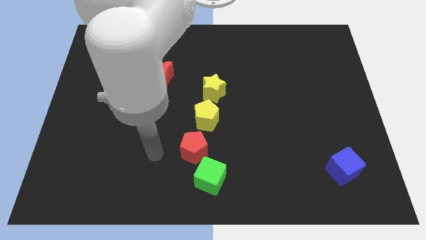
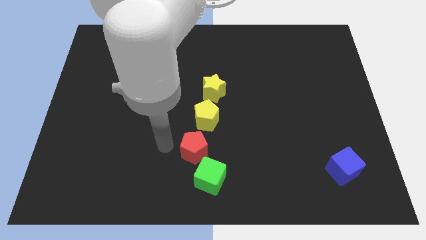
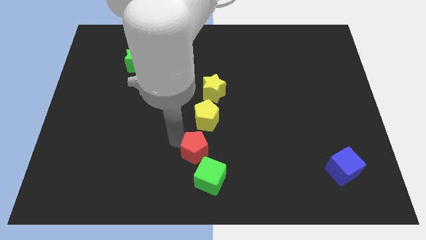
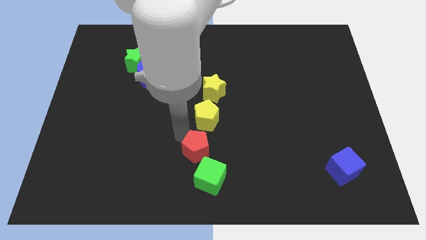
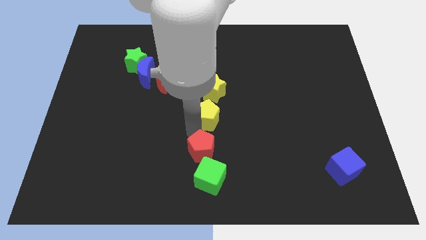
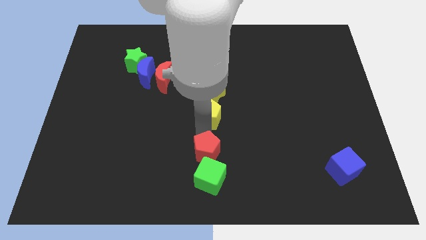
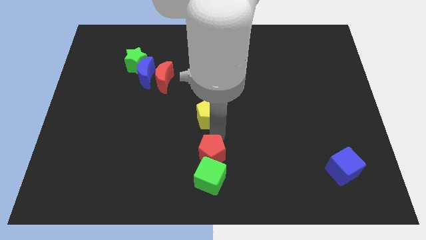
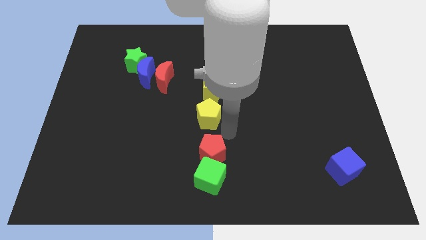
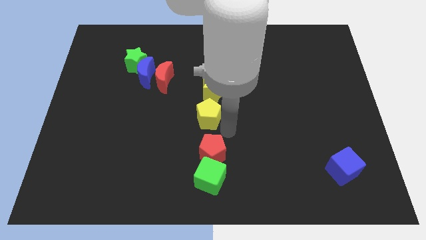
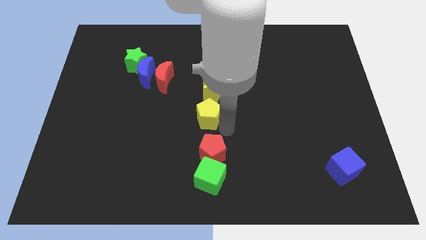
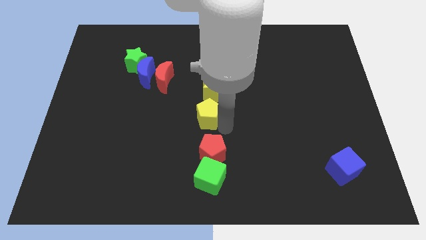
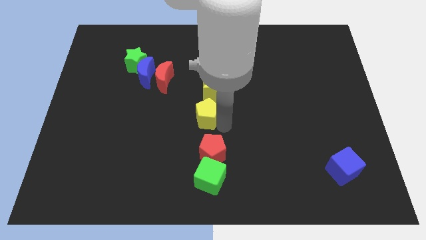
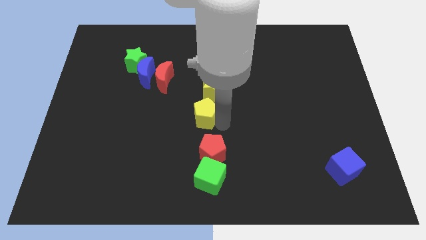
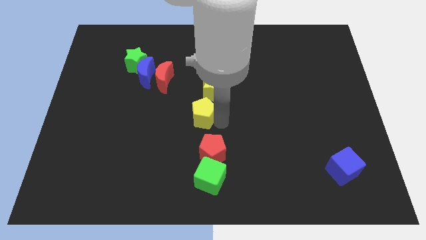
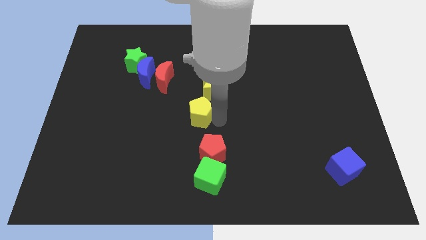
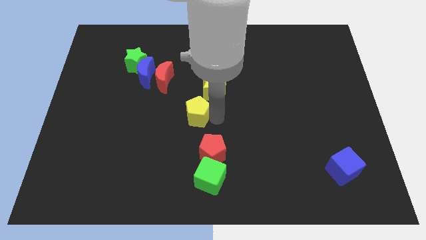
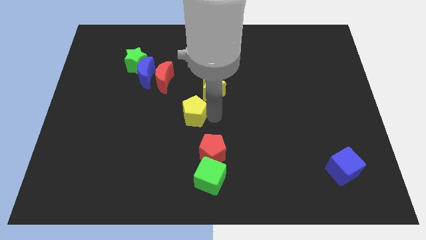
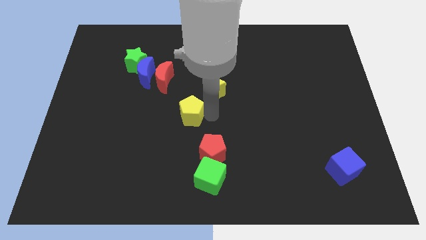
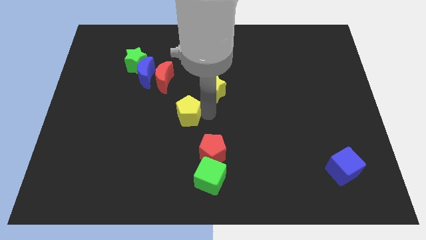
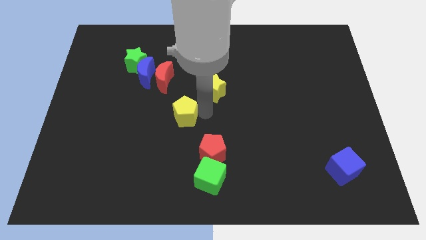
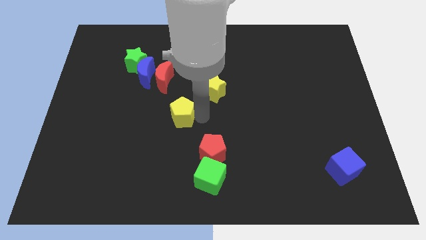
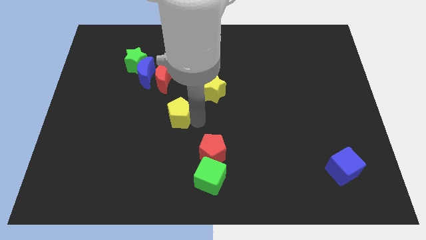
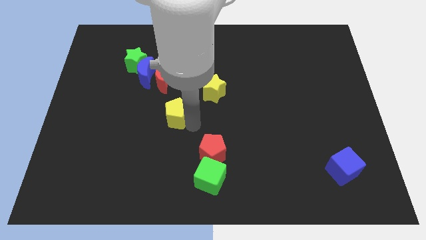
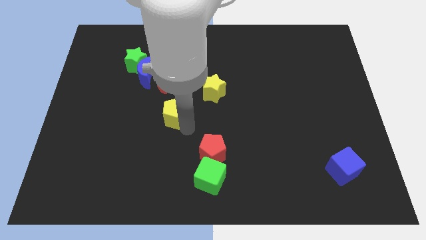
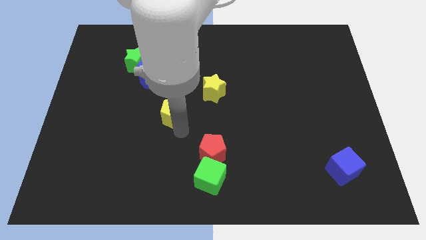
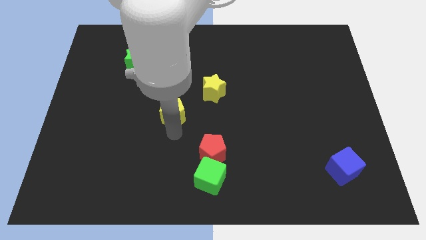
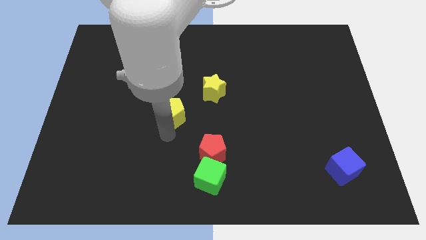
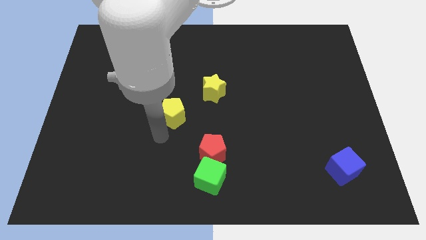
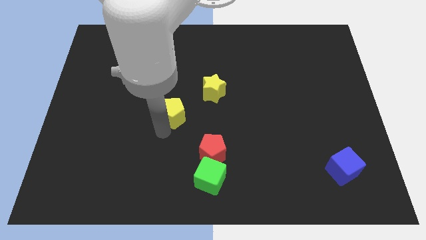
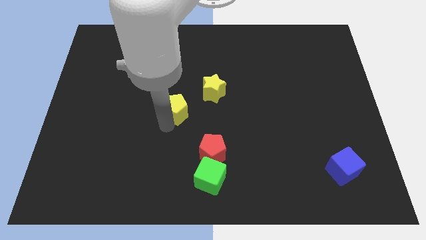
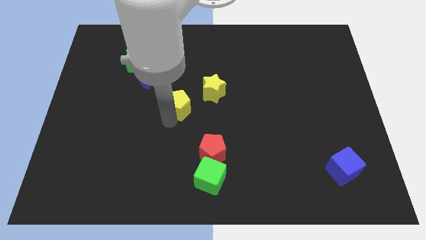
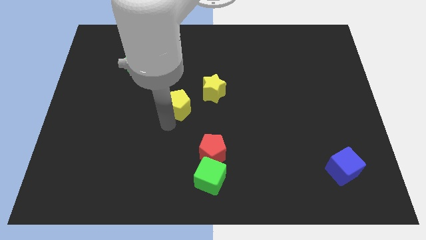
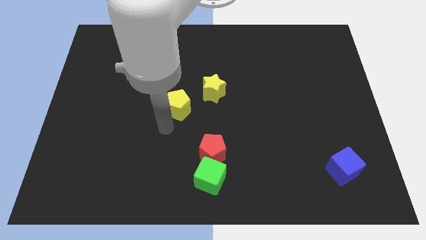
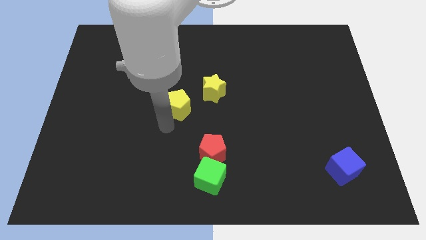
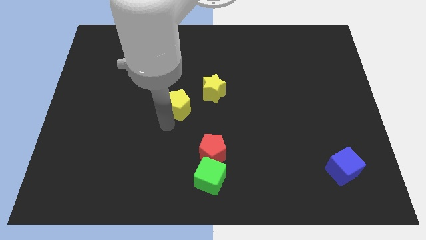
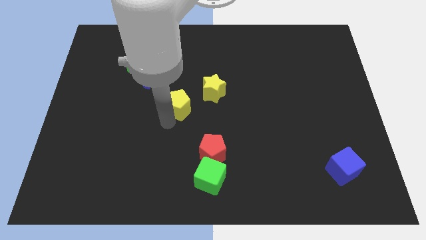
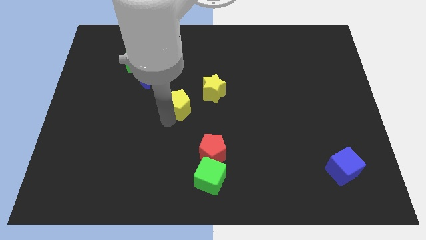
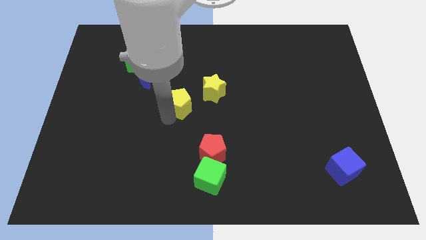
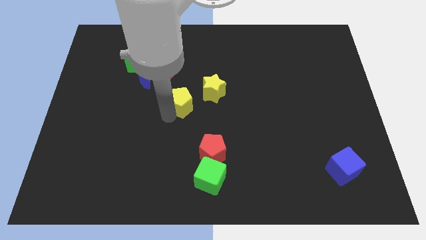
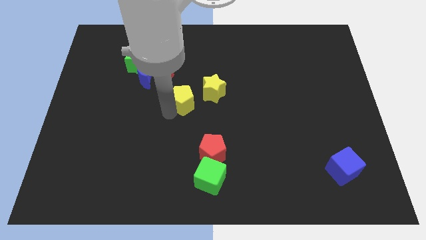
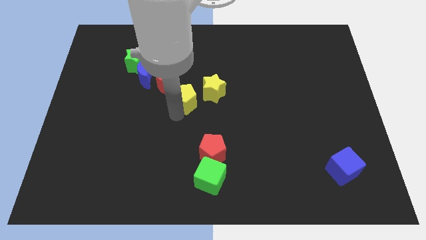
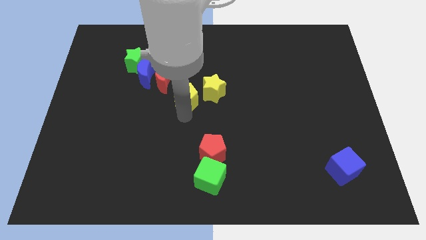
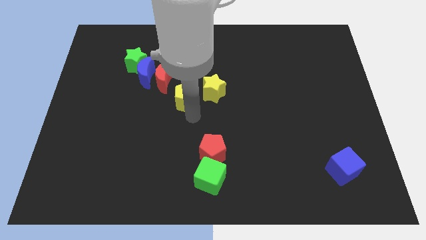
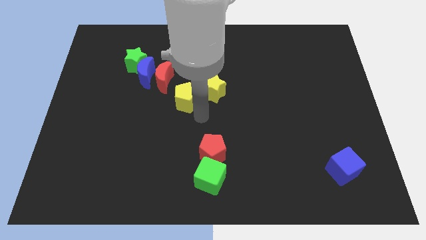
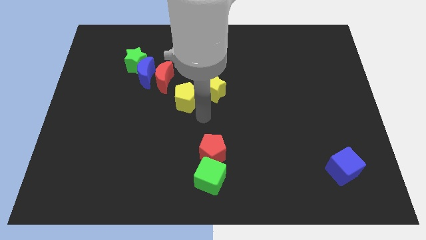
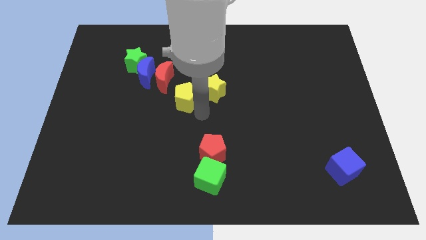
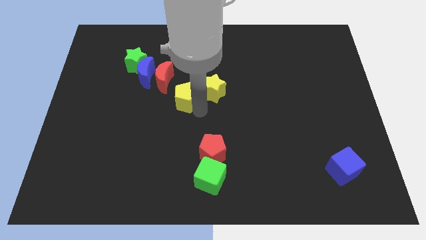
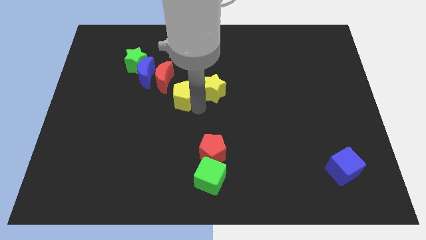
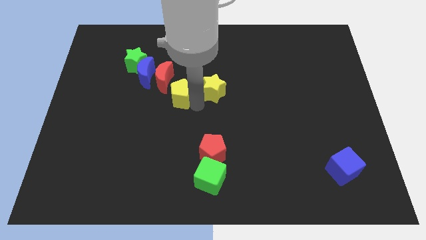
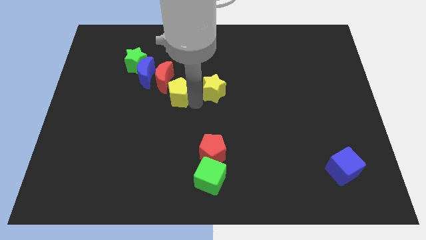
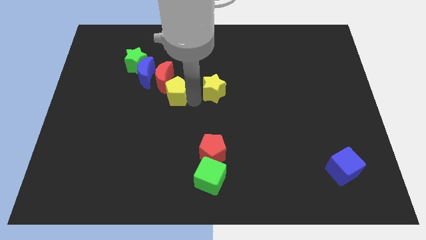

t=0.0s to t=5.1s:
move the yellow pentagon to the red moon

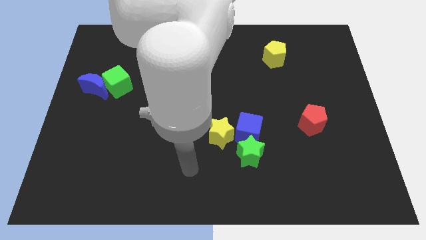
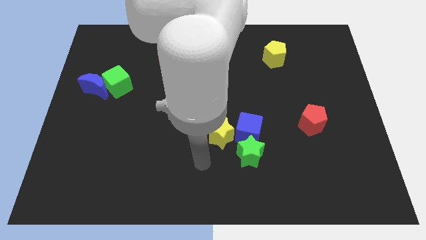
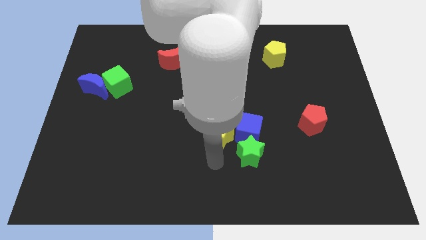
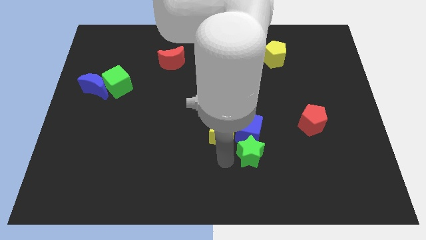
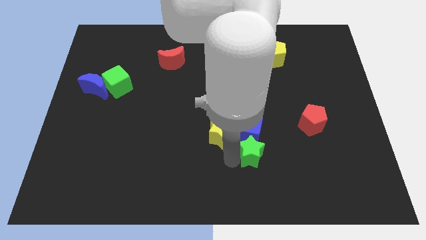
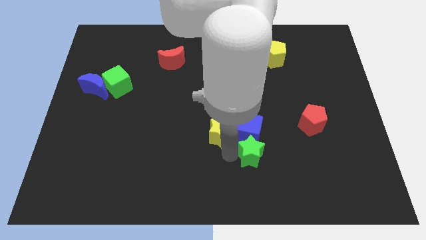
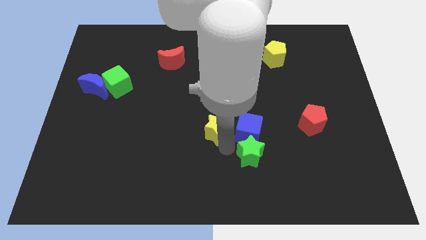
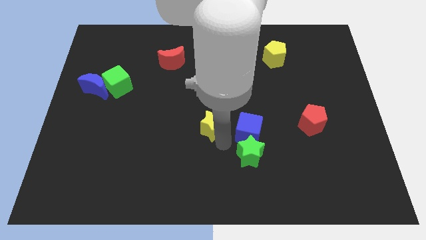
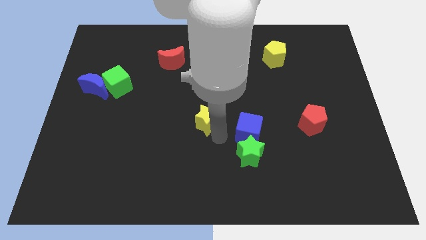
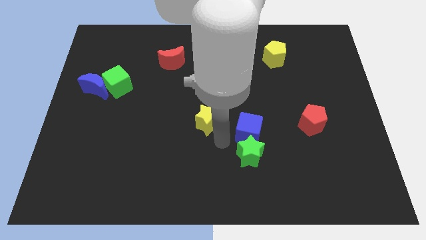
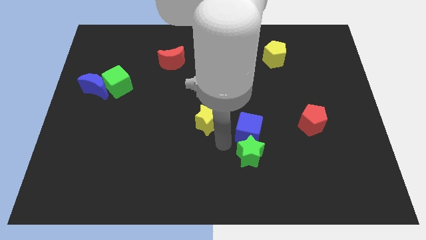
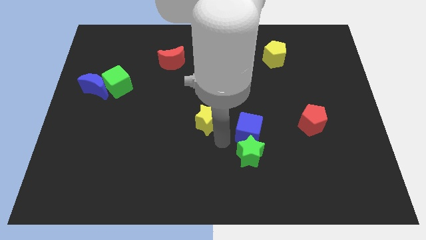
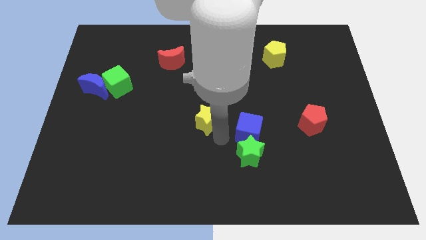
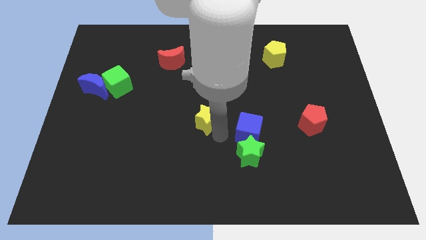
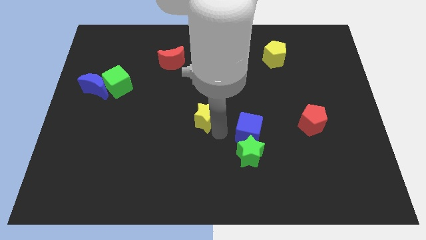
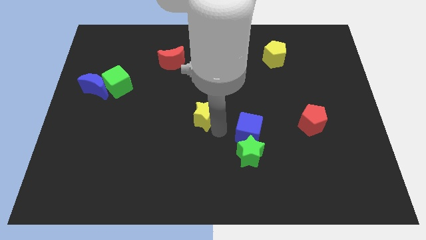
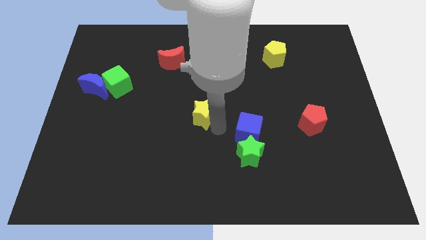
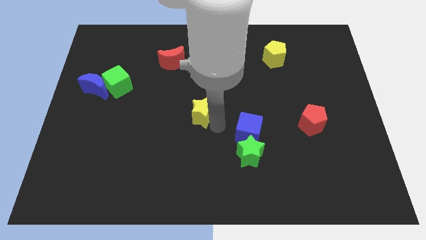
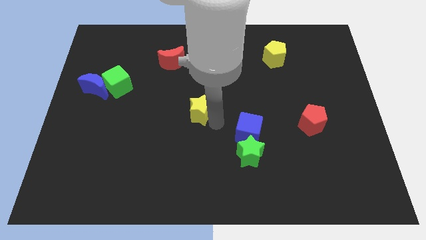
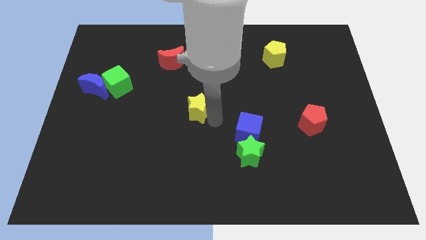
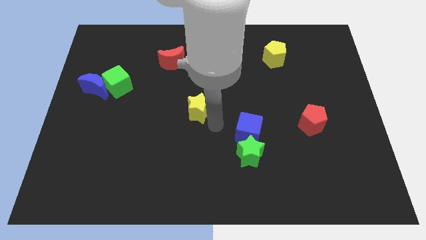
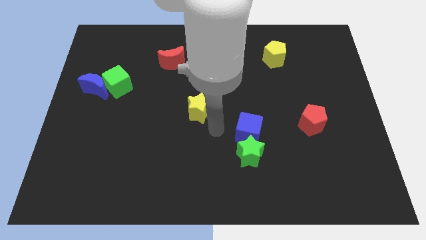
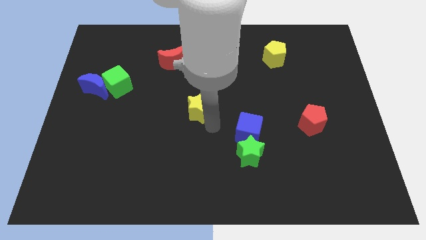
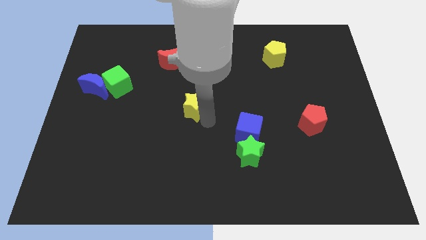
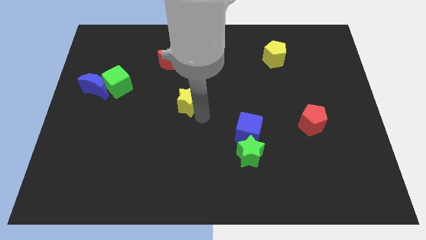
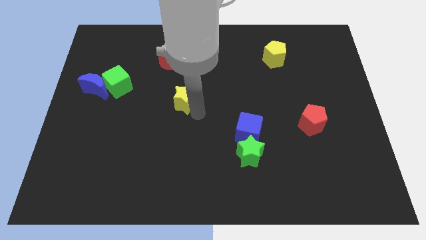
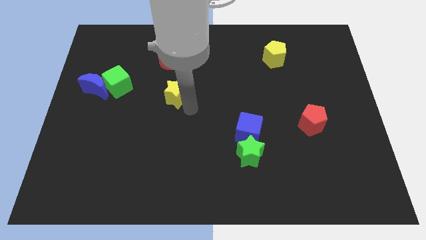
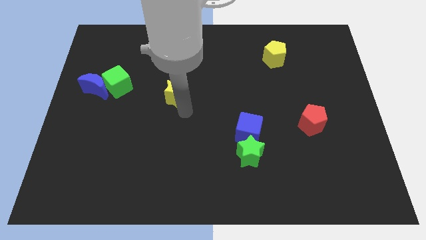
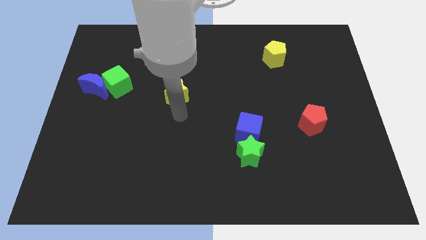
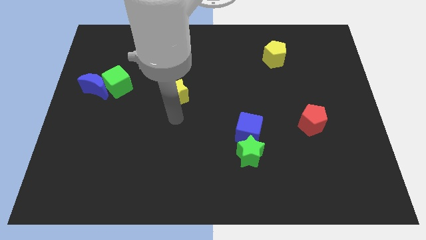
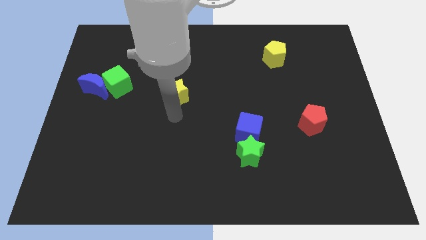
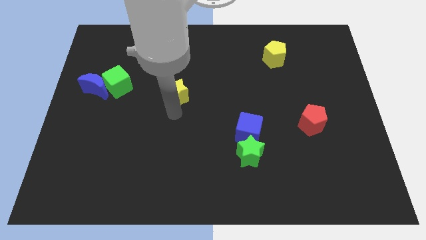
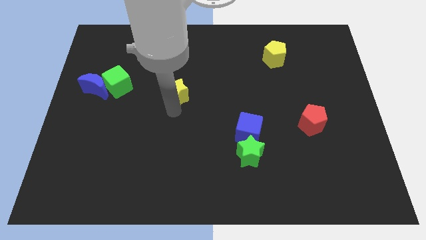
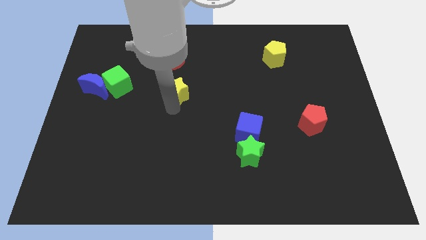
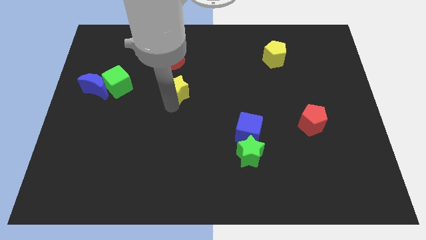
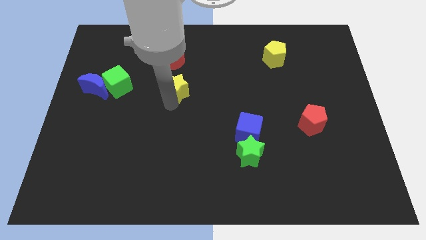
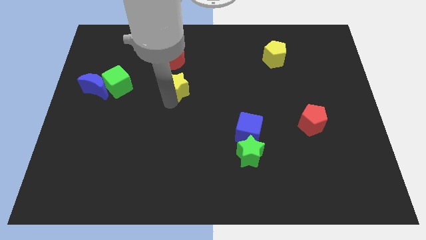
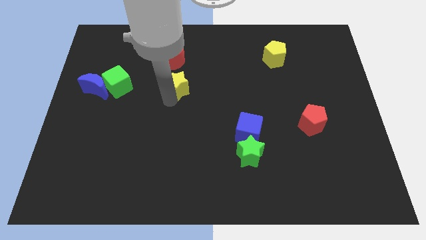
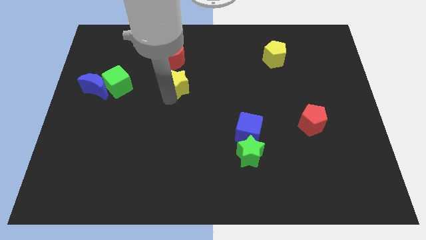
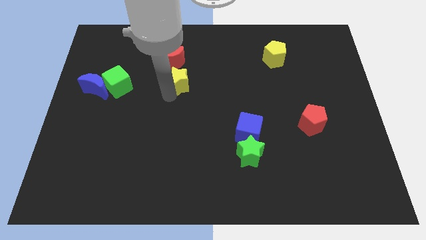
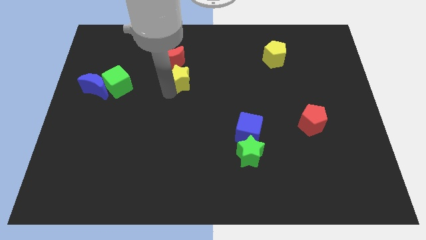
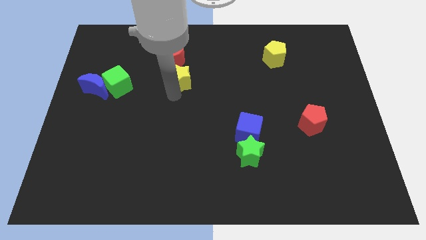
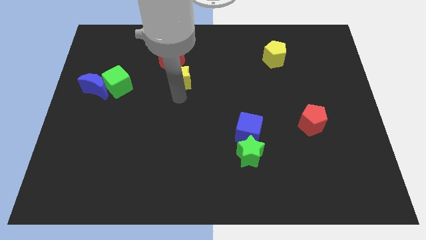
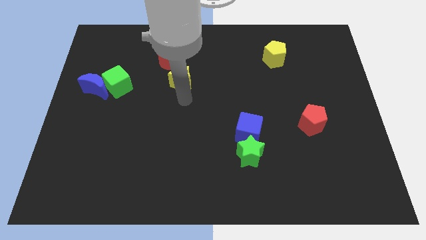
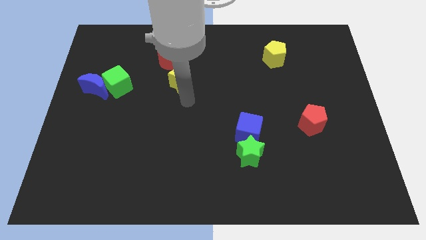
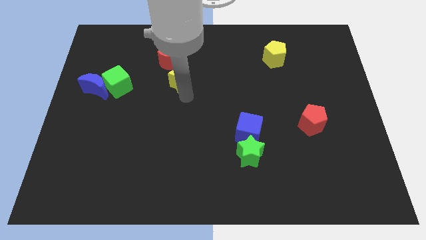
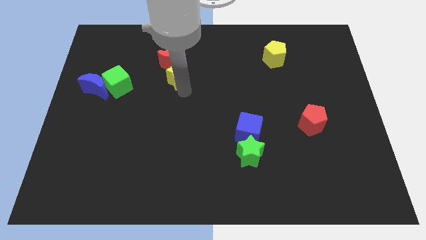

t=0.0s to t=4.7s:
slide the yellow star to the red moon
